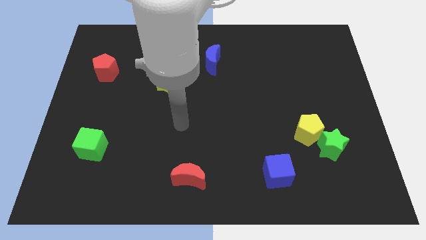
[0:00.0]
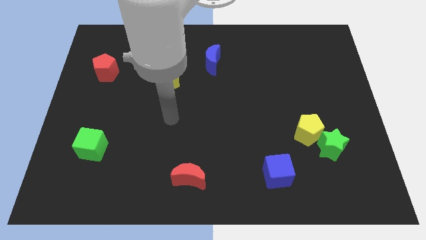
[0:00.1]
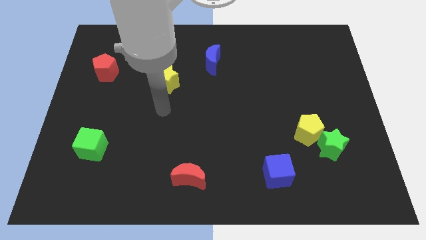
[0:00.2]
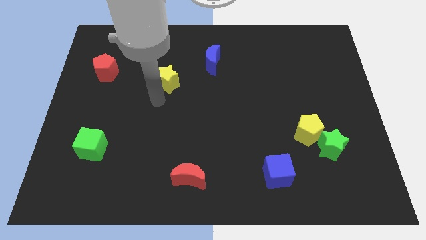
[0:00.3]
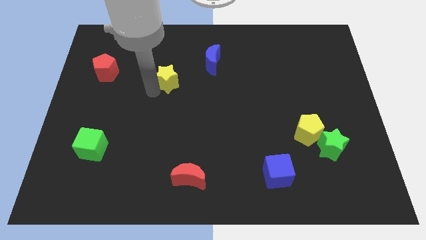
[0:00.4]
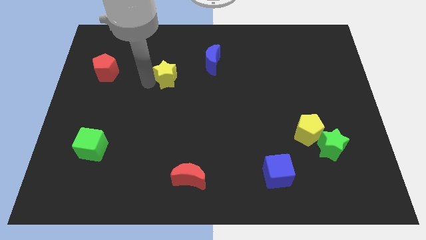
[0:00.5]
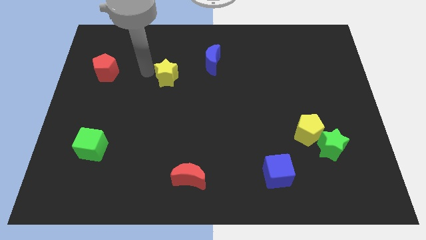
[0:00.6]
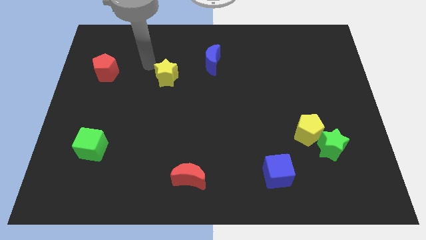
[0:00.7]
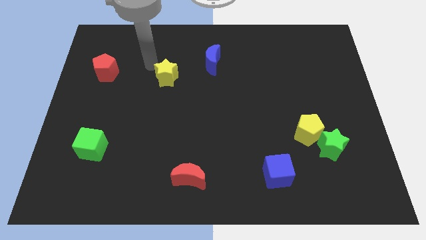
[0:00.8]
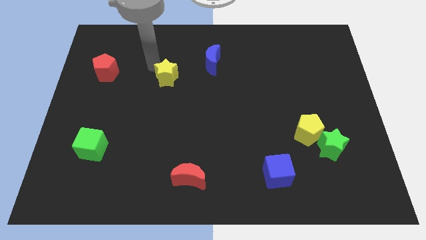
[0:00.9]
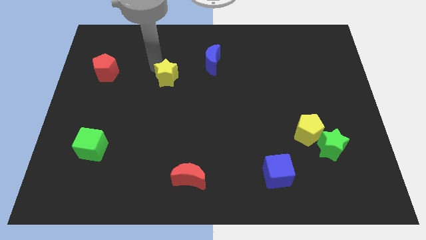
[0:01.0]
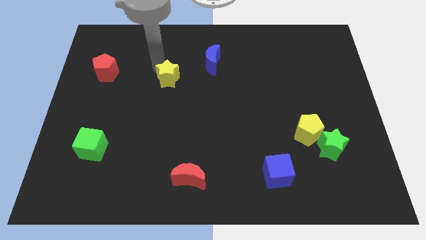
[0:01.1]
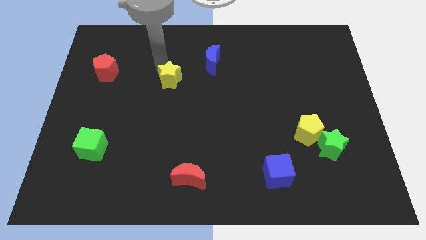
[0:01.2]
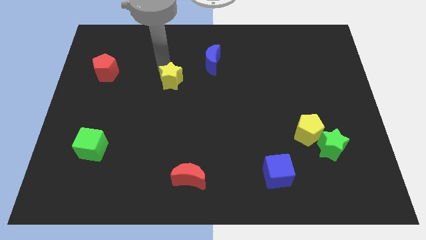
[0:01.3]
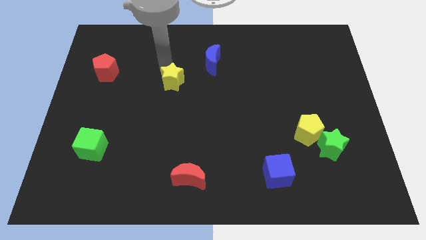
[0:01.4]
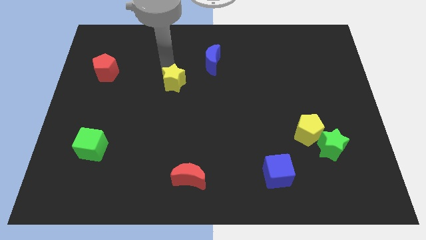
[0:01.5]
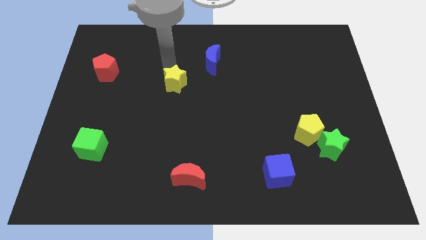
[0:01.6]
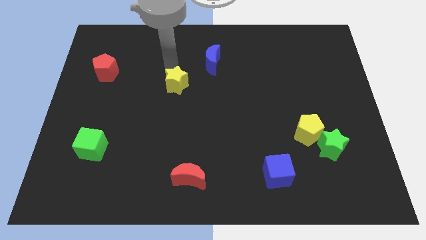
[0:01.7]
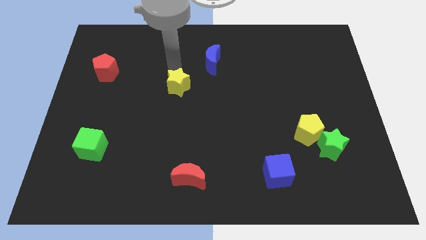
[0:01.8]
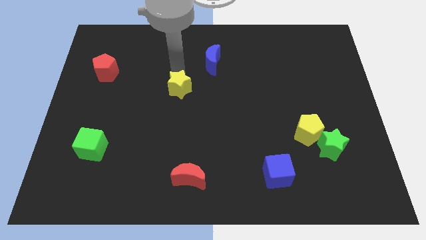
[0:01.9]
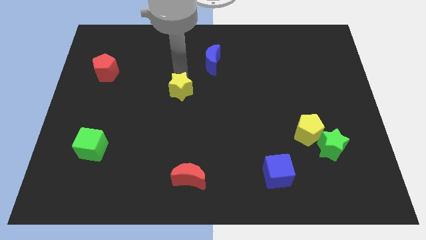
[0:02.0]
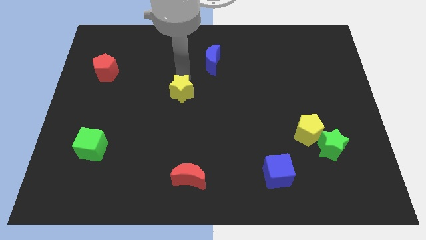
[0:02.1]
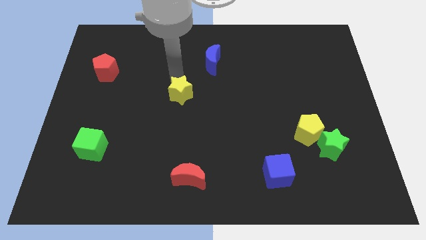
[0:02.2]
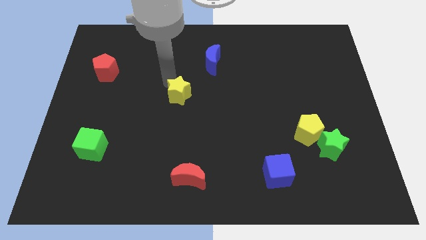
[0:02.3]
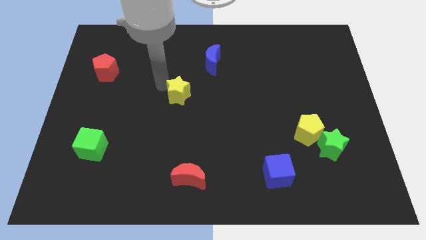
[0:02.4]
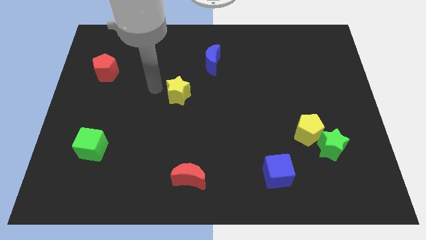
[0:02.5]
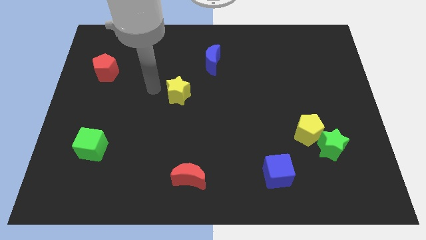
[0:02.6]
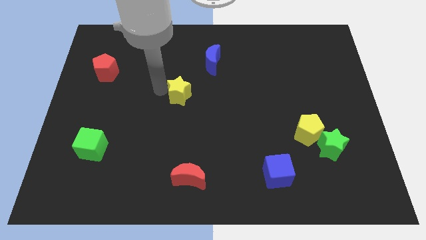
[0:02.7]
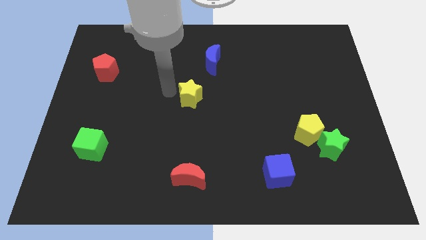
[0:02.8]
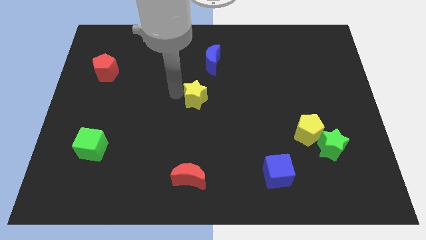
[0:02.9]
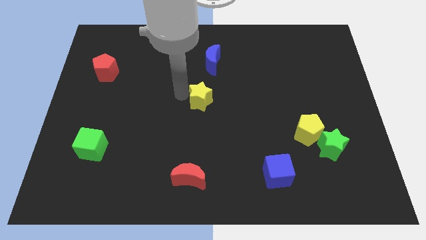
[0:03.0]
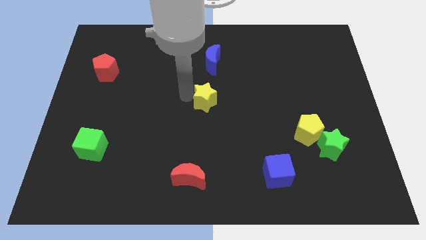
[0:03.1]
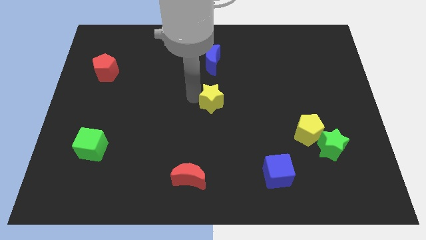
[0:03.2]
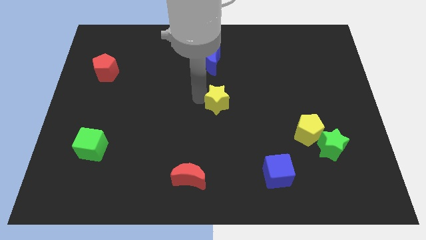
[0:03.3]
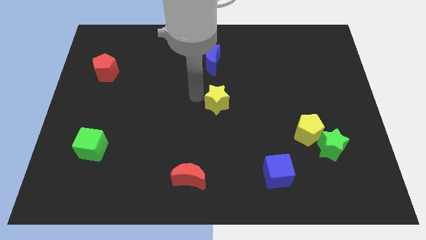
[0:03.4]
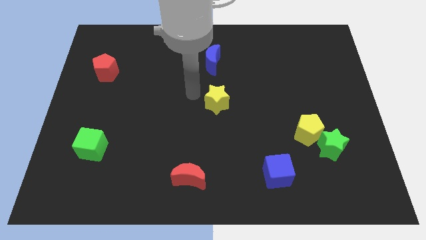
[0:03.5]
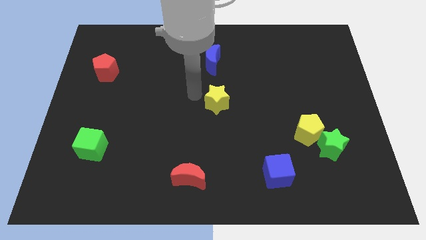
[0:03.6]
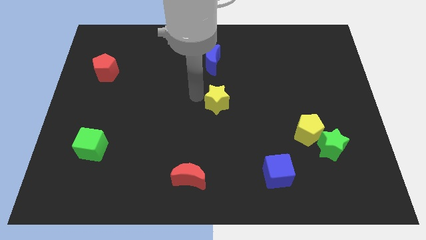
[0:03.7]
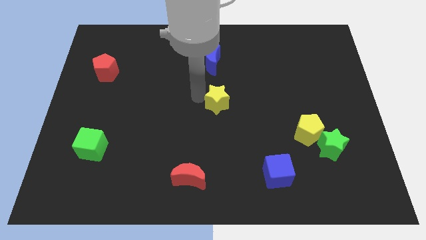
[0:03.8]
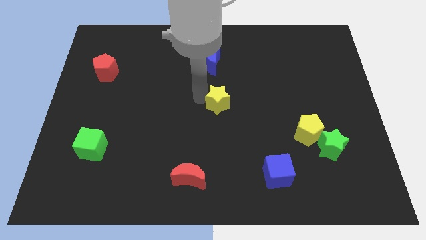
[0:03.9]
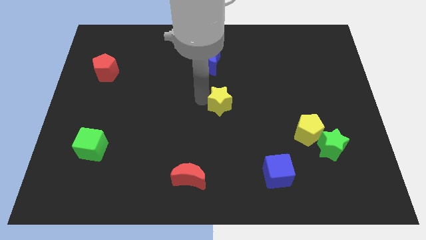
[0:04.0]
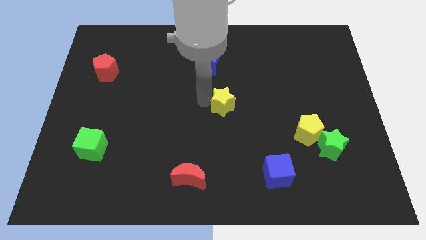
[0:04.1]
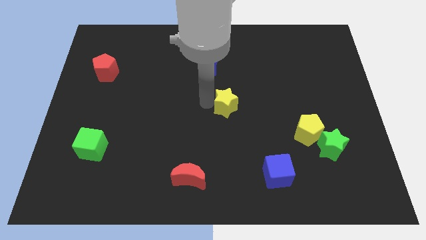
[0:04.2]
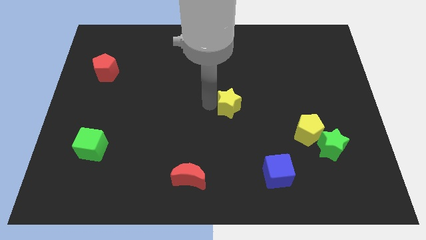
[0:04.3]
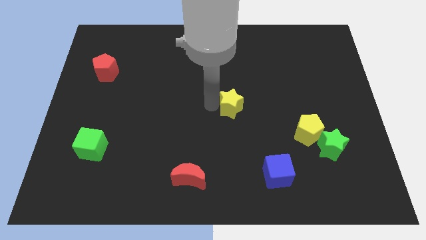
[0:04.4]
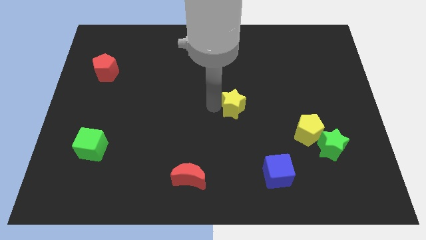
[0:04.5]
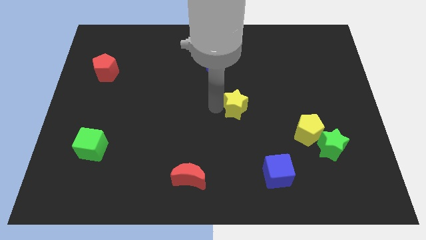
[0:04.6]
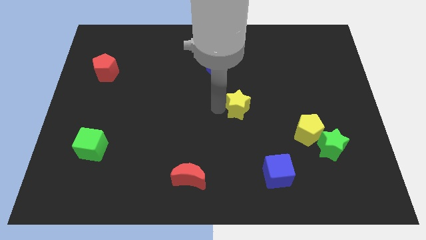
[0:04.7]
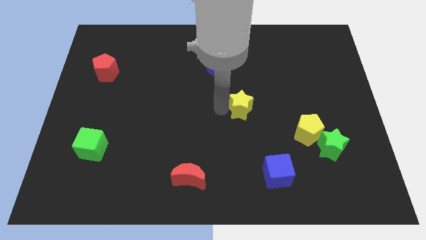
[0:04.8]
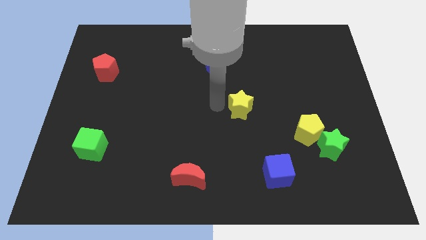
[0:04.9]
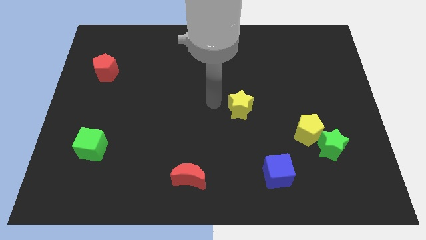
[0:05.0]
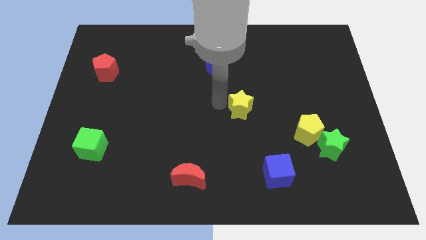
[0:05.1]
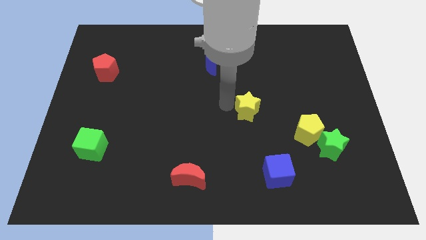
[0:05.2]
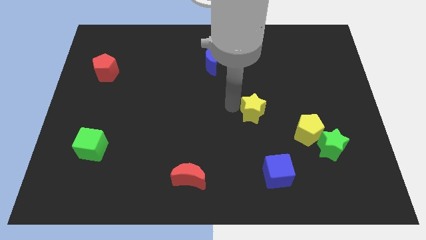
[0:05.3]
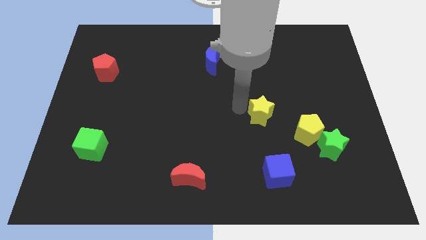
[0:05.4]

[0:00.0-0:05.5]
push the yellow star diagonally up and to the left of the yellow pentagon
